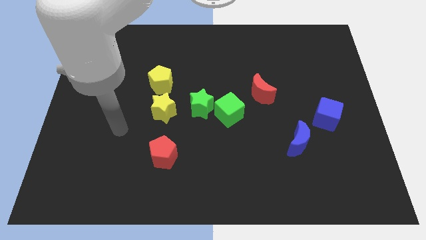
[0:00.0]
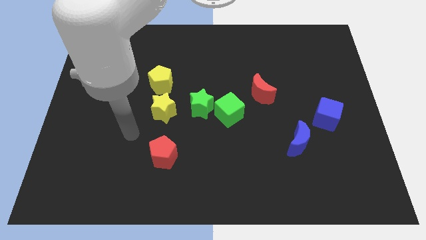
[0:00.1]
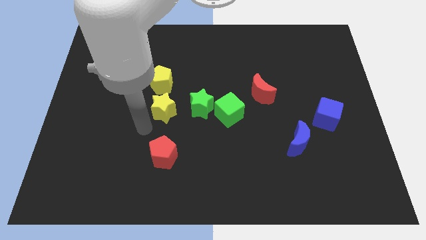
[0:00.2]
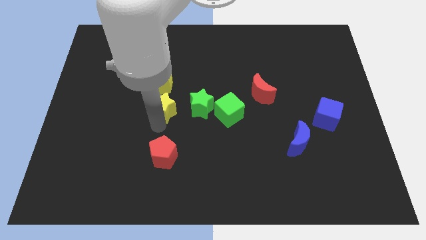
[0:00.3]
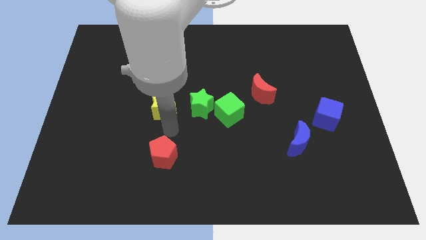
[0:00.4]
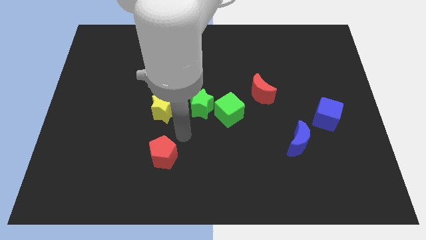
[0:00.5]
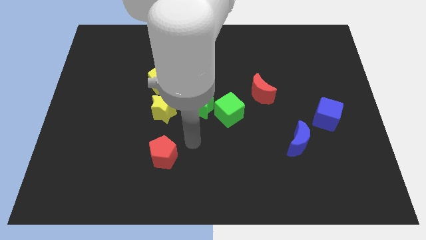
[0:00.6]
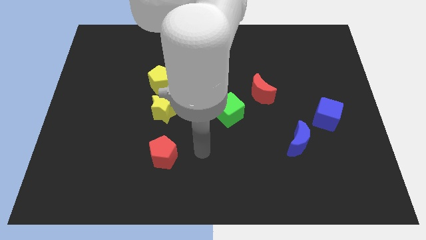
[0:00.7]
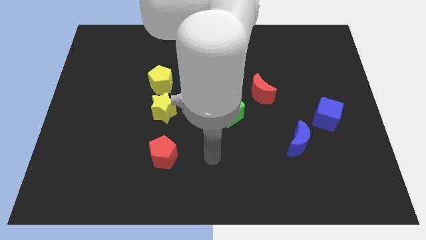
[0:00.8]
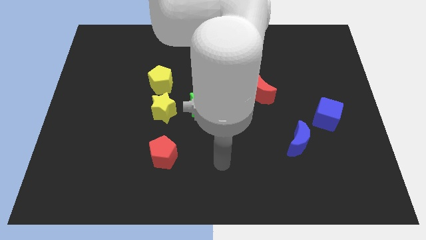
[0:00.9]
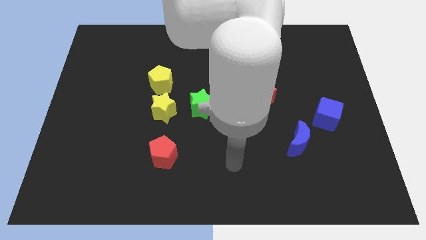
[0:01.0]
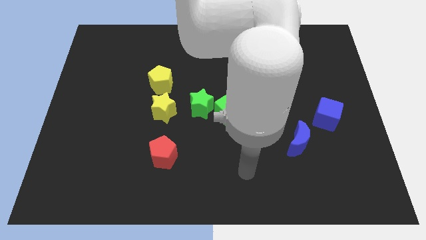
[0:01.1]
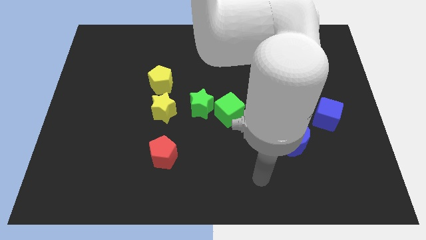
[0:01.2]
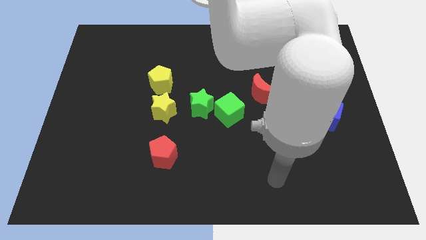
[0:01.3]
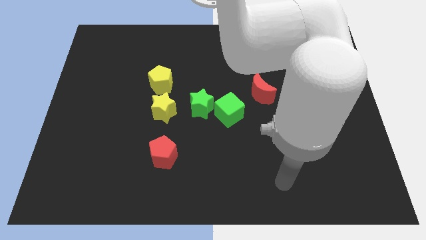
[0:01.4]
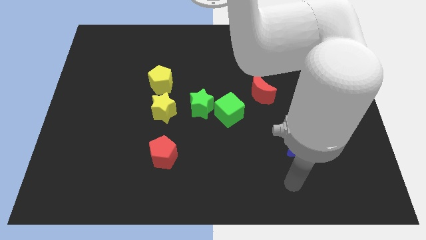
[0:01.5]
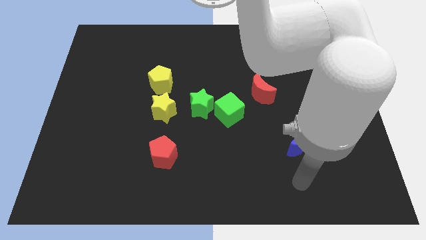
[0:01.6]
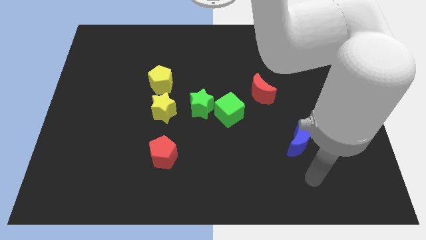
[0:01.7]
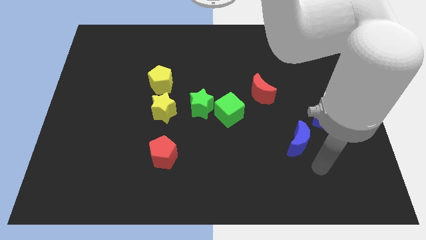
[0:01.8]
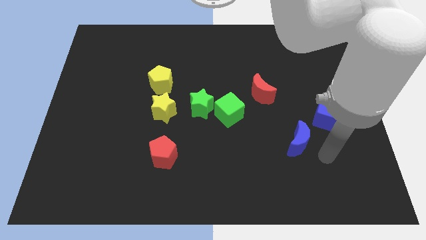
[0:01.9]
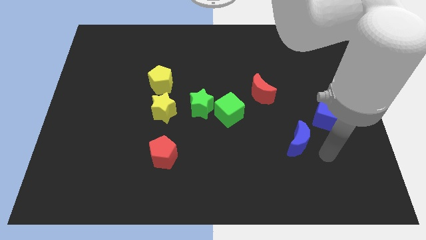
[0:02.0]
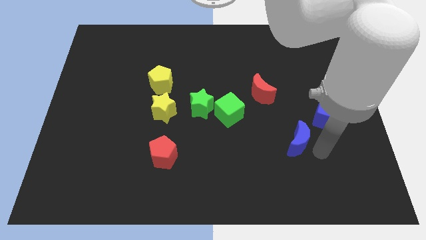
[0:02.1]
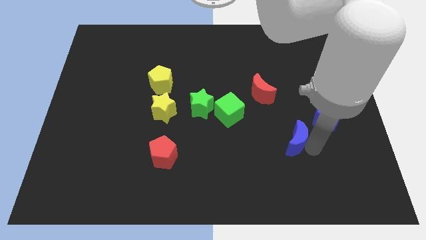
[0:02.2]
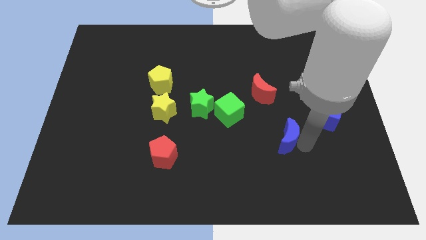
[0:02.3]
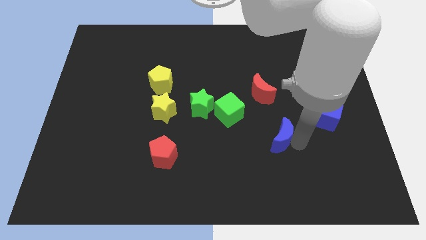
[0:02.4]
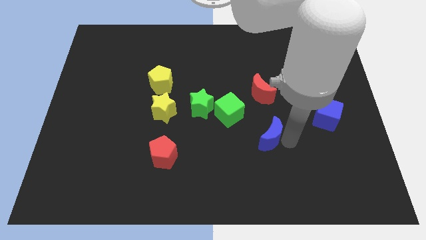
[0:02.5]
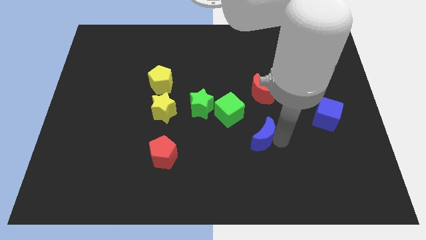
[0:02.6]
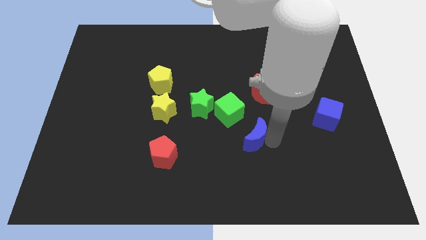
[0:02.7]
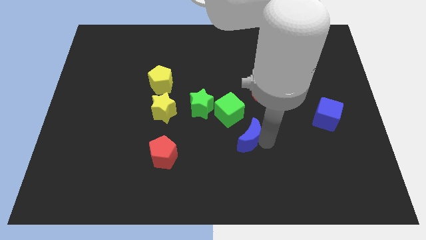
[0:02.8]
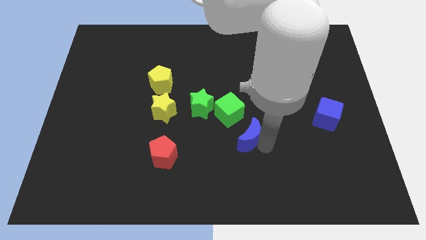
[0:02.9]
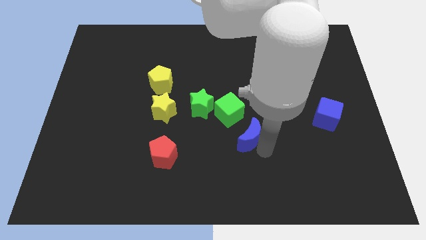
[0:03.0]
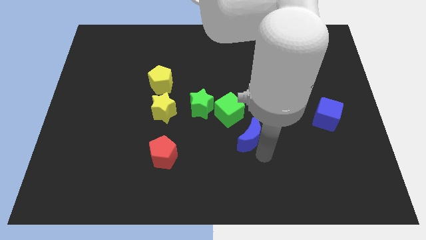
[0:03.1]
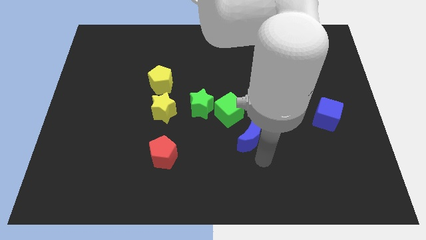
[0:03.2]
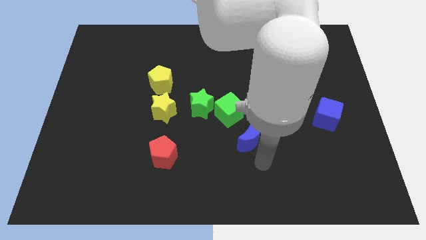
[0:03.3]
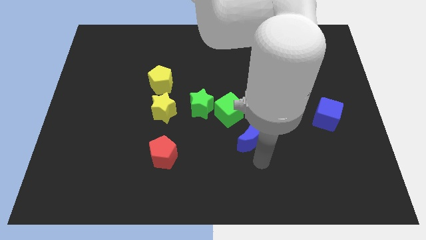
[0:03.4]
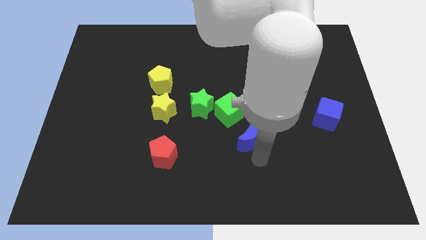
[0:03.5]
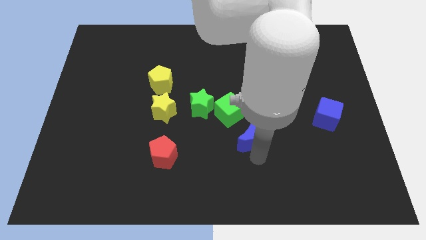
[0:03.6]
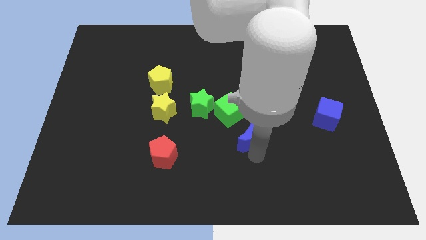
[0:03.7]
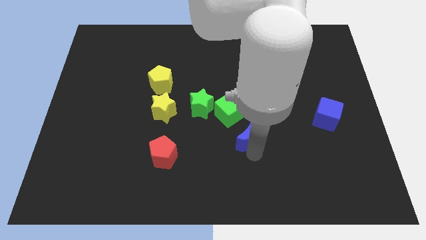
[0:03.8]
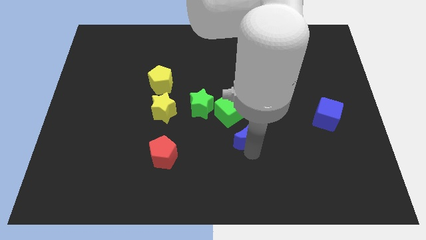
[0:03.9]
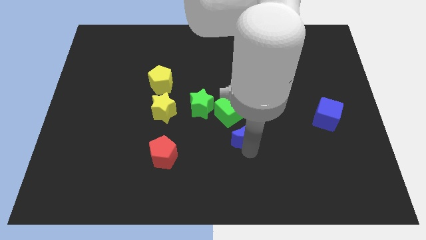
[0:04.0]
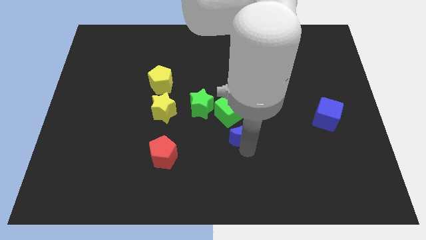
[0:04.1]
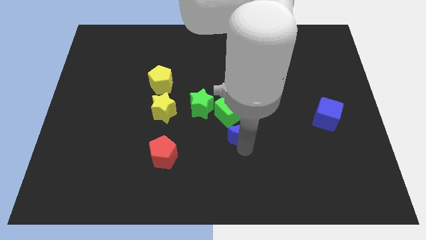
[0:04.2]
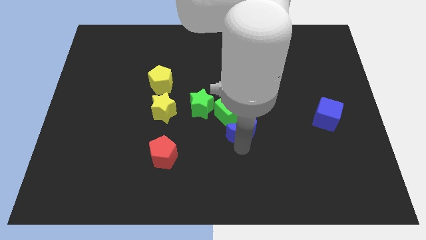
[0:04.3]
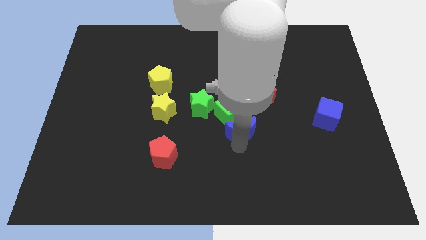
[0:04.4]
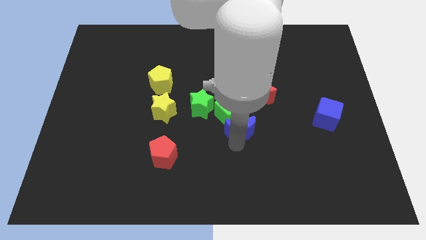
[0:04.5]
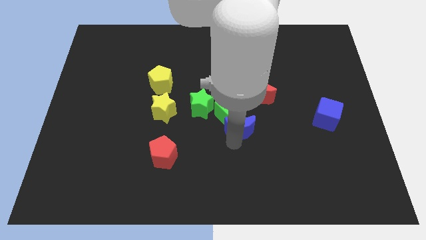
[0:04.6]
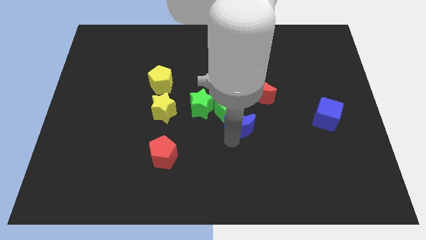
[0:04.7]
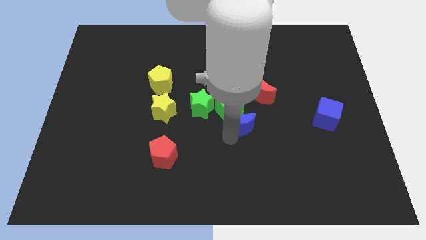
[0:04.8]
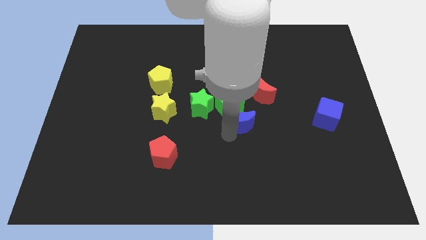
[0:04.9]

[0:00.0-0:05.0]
put the blue moon to the right of the green star
